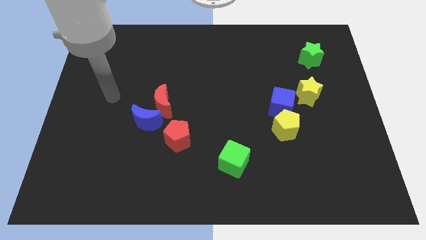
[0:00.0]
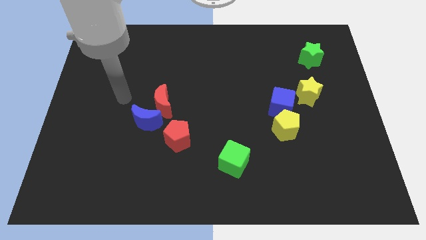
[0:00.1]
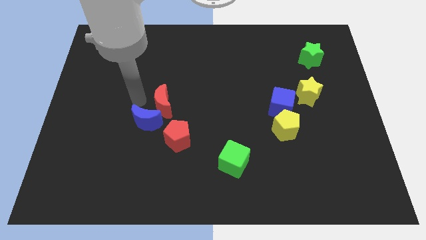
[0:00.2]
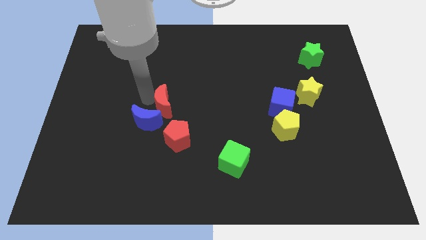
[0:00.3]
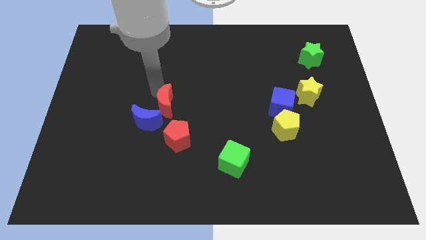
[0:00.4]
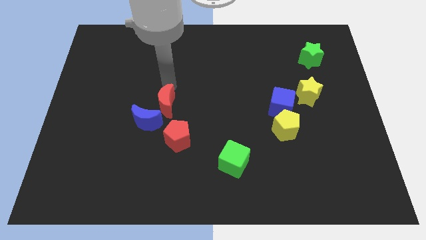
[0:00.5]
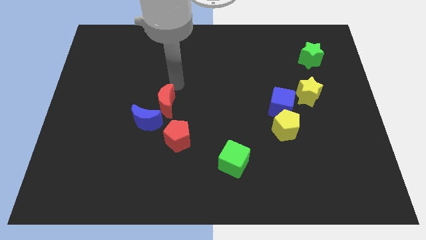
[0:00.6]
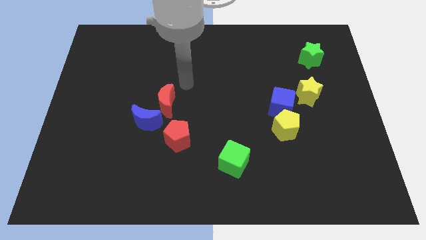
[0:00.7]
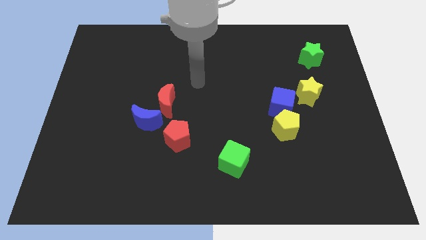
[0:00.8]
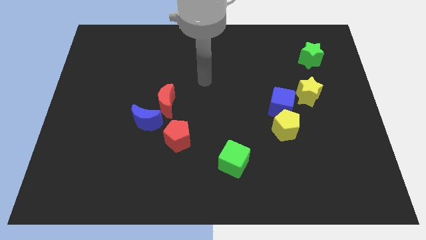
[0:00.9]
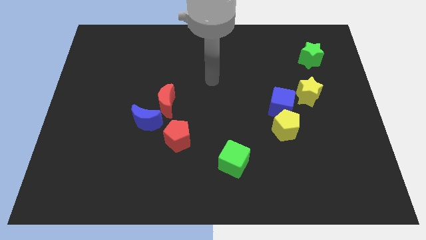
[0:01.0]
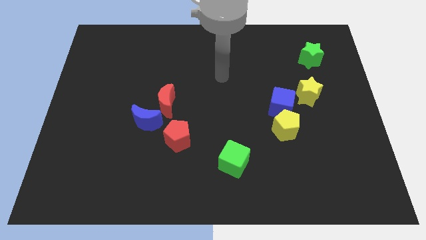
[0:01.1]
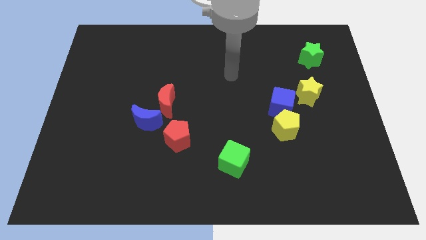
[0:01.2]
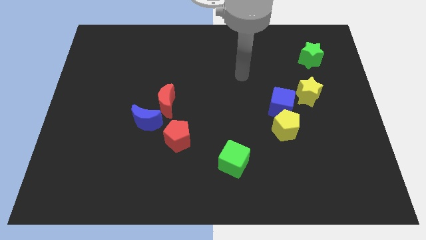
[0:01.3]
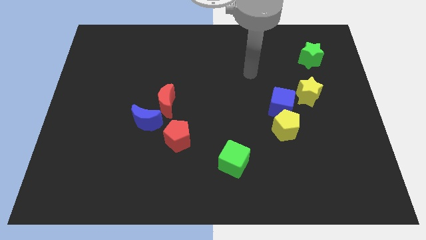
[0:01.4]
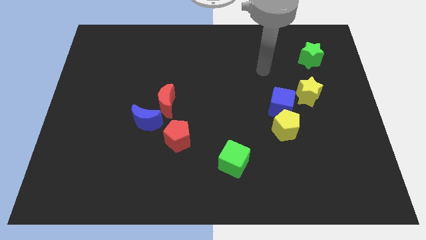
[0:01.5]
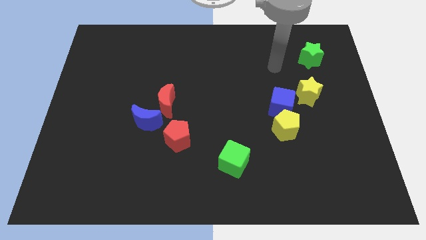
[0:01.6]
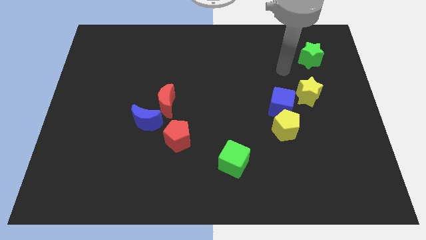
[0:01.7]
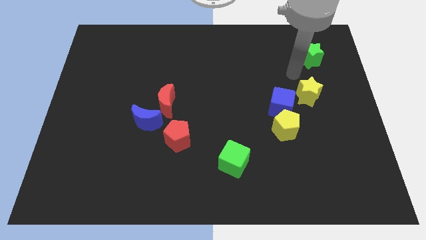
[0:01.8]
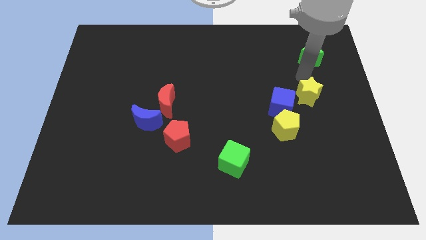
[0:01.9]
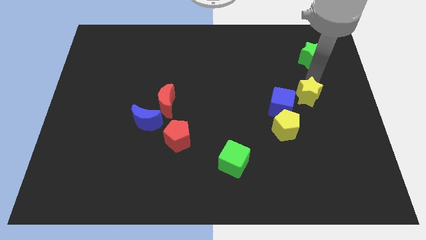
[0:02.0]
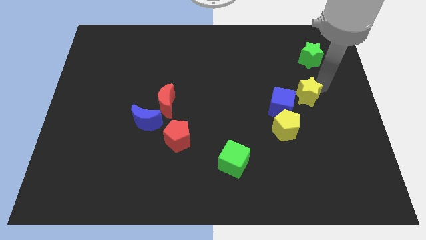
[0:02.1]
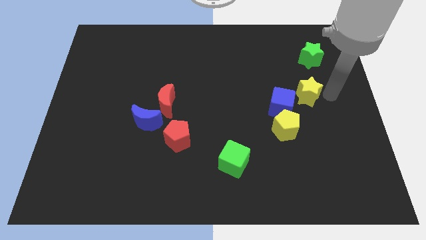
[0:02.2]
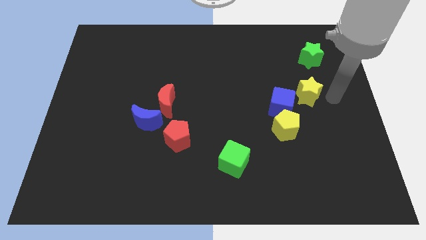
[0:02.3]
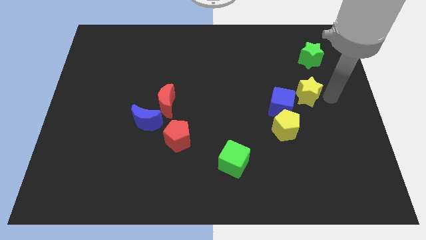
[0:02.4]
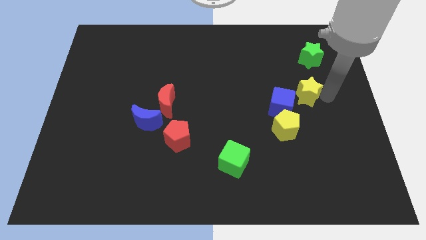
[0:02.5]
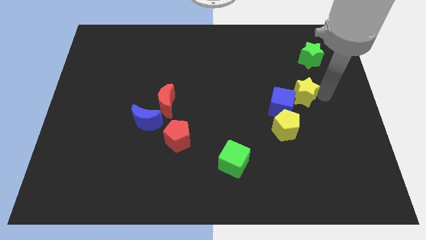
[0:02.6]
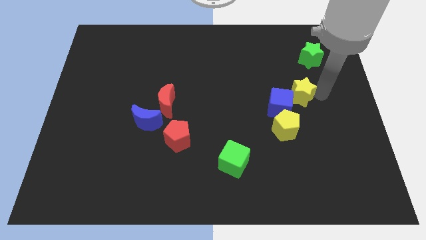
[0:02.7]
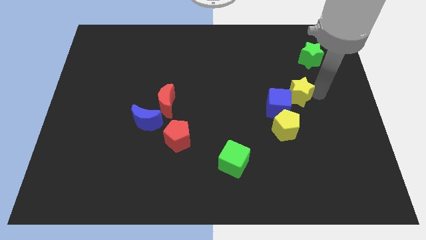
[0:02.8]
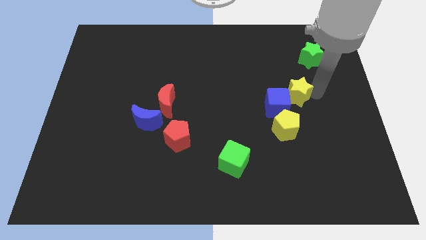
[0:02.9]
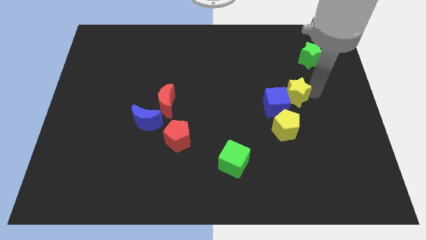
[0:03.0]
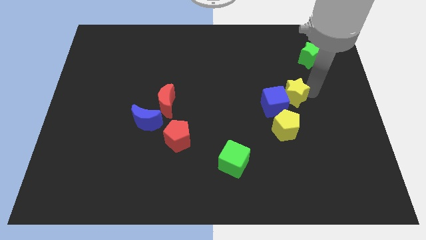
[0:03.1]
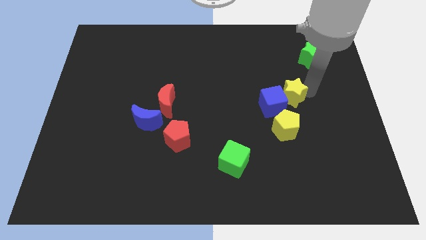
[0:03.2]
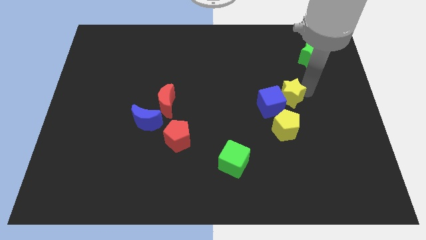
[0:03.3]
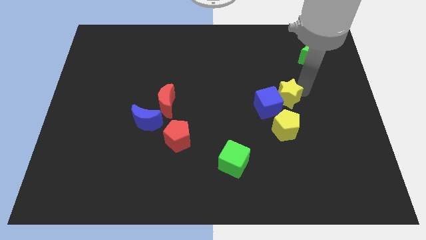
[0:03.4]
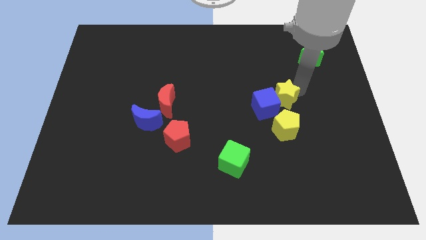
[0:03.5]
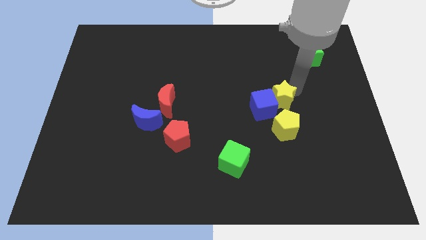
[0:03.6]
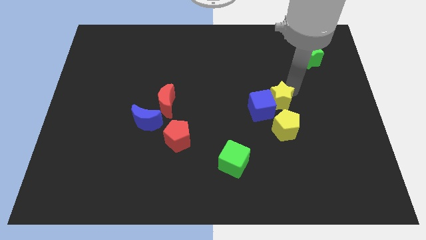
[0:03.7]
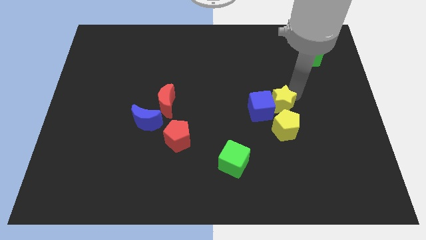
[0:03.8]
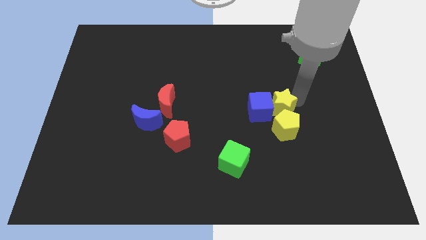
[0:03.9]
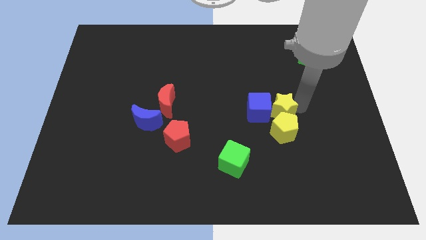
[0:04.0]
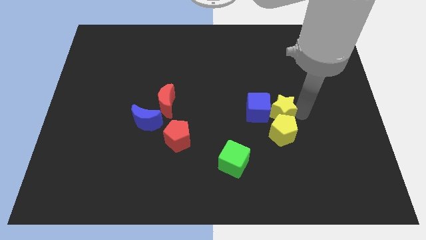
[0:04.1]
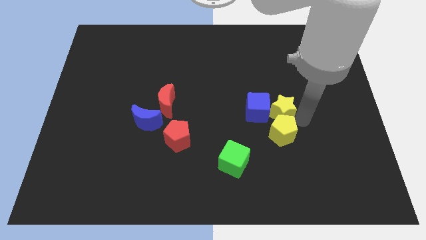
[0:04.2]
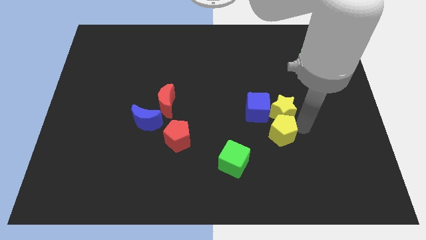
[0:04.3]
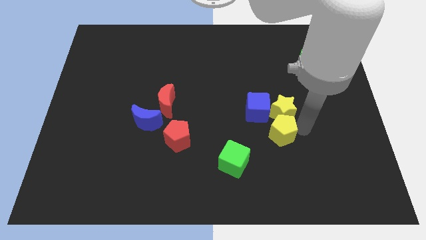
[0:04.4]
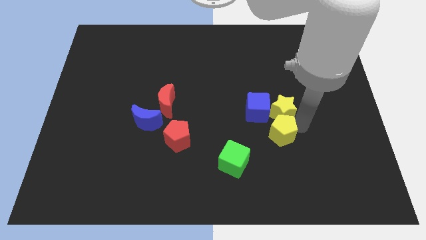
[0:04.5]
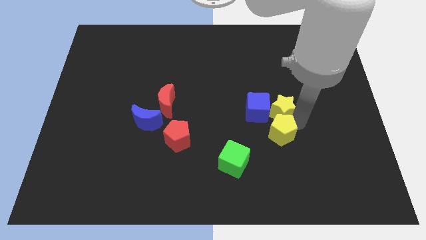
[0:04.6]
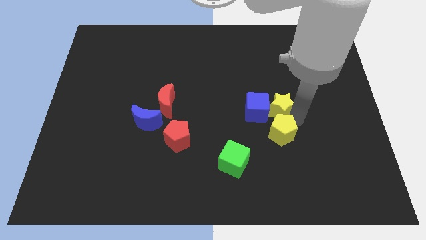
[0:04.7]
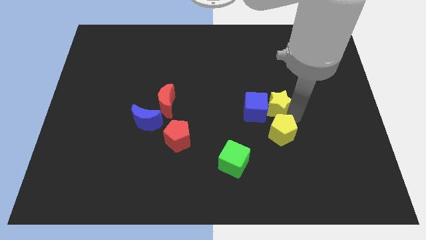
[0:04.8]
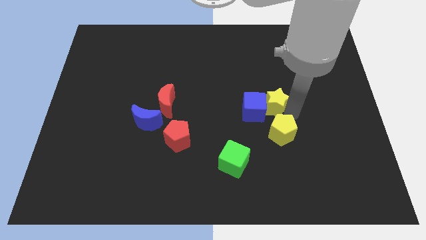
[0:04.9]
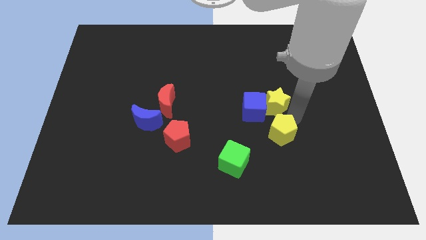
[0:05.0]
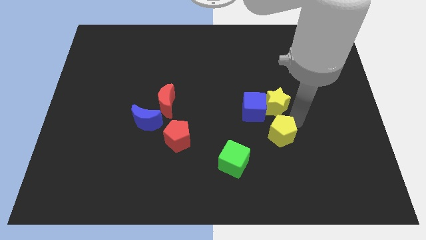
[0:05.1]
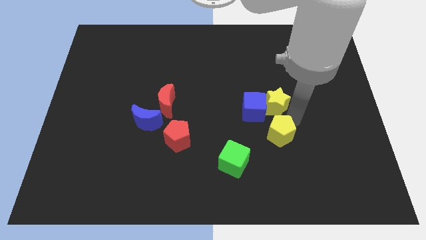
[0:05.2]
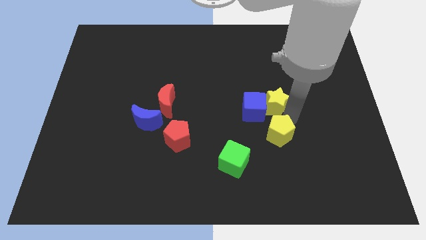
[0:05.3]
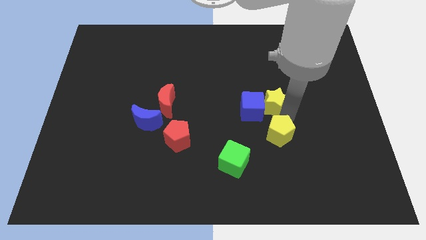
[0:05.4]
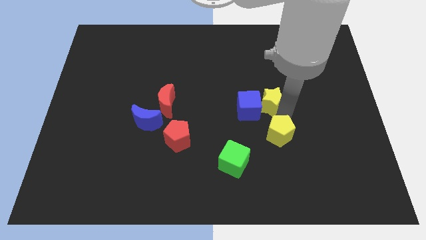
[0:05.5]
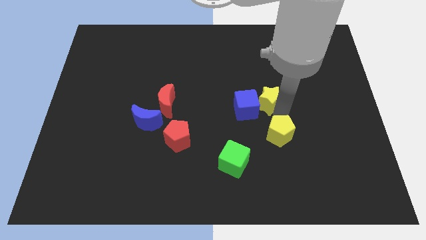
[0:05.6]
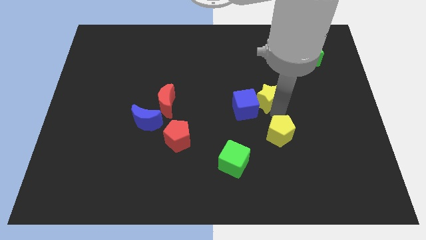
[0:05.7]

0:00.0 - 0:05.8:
push the yellow star to the middle of the board
